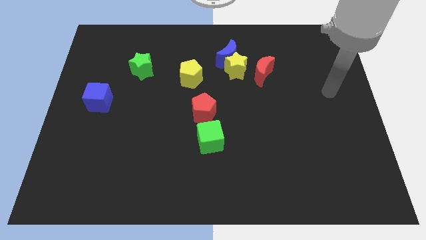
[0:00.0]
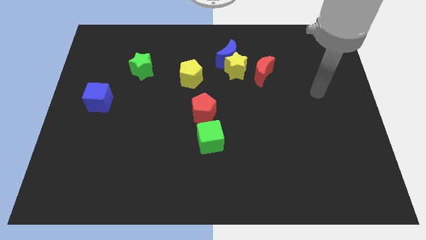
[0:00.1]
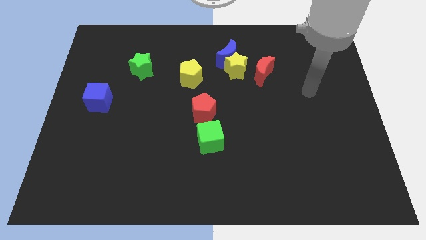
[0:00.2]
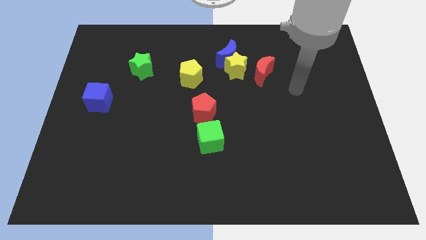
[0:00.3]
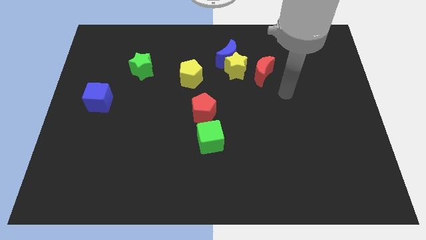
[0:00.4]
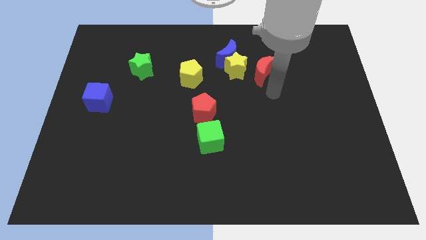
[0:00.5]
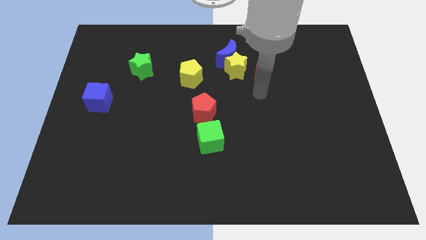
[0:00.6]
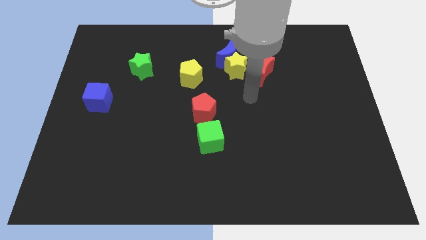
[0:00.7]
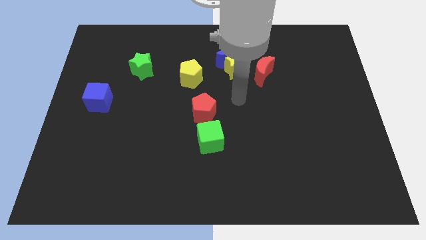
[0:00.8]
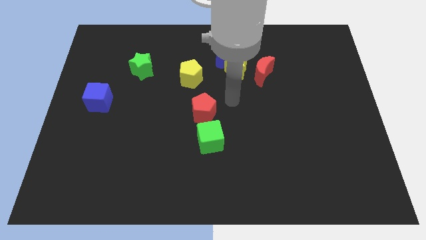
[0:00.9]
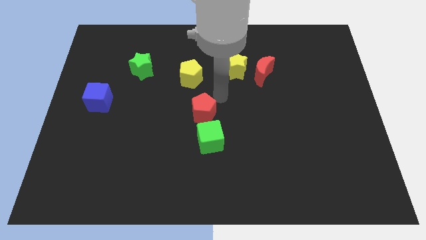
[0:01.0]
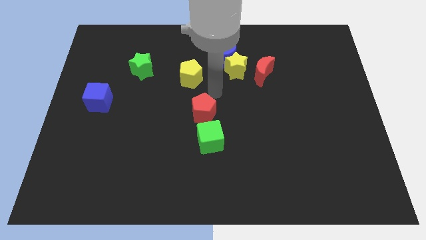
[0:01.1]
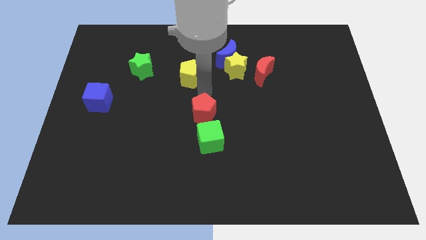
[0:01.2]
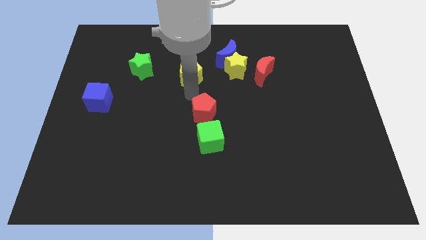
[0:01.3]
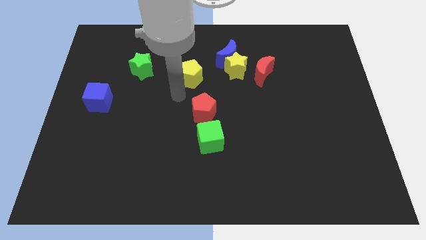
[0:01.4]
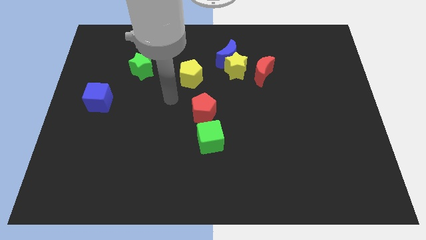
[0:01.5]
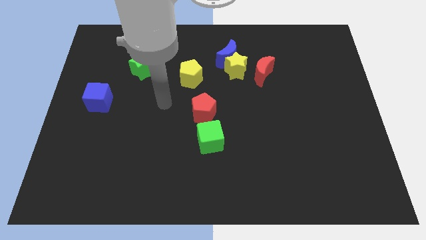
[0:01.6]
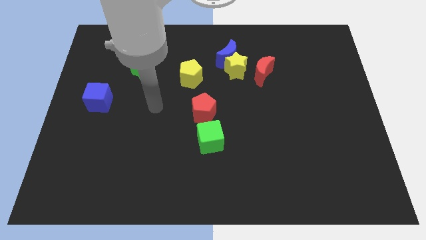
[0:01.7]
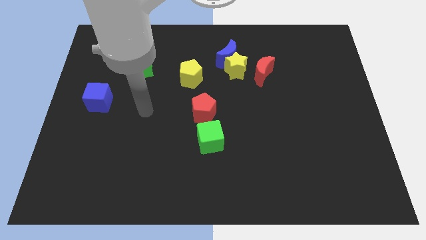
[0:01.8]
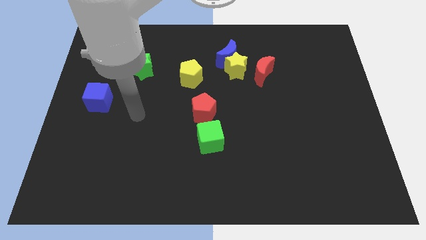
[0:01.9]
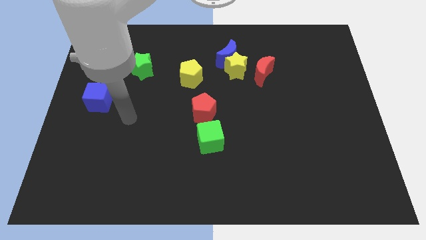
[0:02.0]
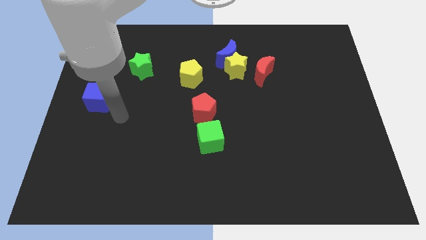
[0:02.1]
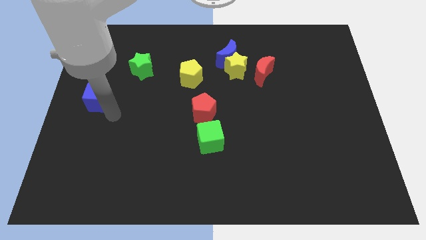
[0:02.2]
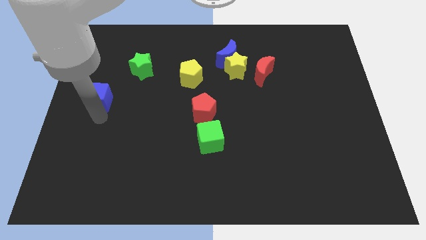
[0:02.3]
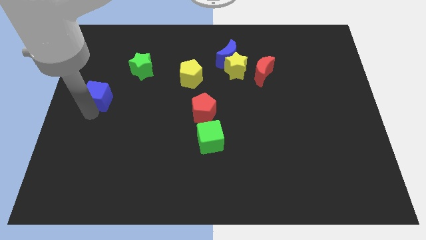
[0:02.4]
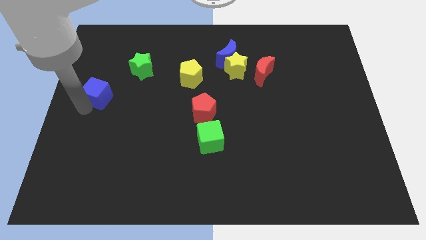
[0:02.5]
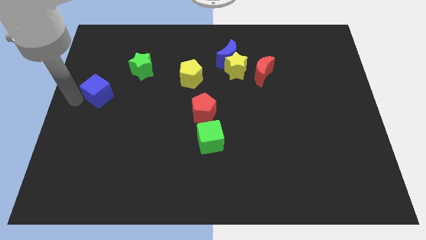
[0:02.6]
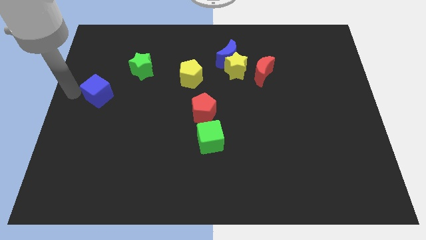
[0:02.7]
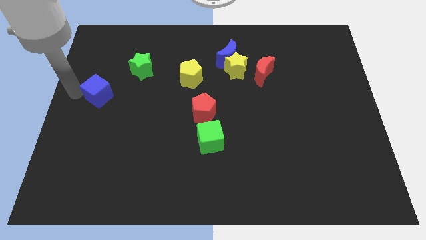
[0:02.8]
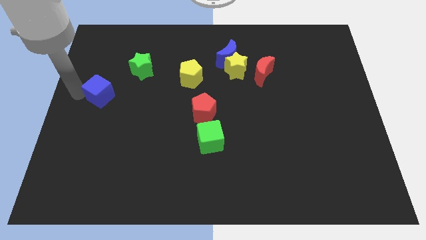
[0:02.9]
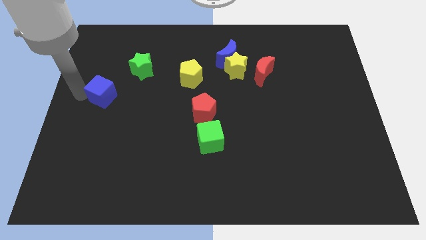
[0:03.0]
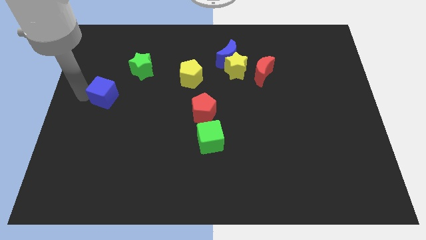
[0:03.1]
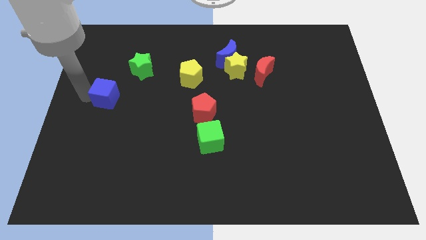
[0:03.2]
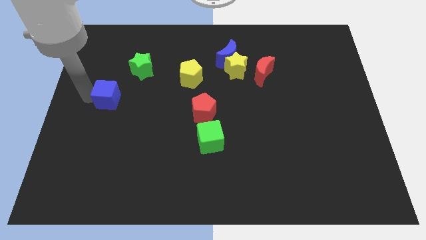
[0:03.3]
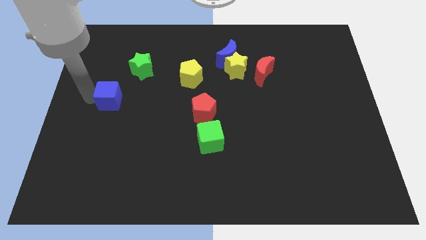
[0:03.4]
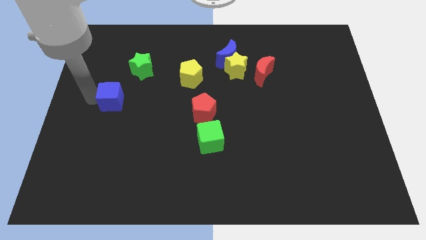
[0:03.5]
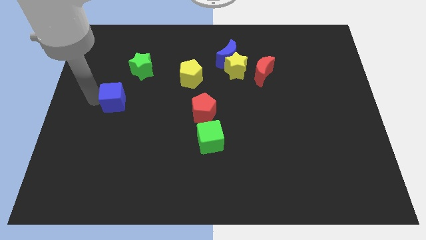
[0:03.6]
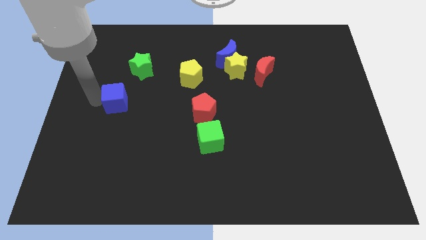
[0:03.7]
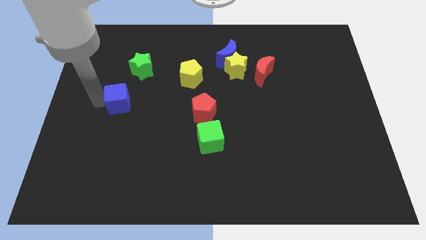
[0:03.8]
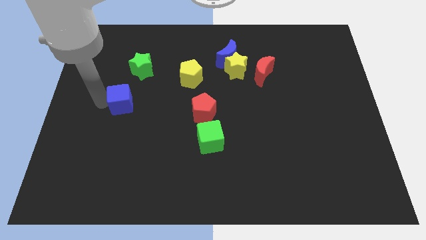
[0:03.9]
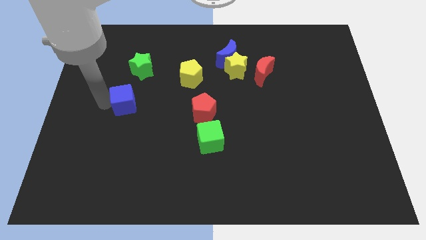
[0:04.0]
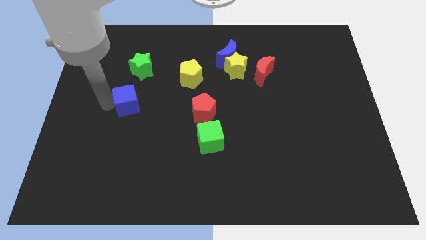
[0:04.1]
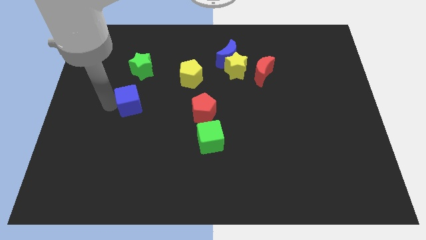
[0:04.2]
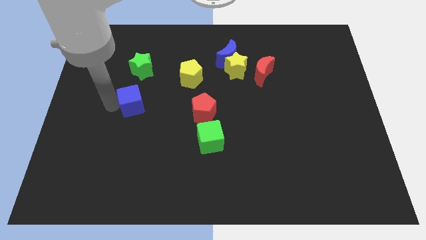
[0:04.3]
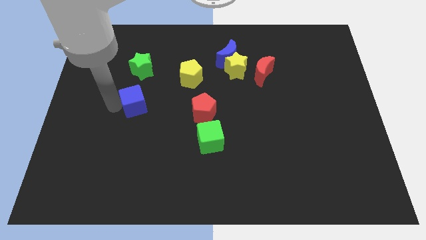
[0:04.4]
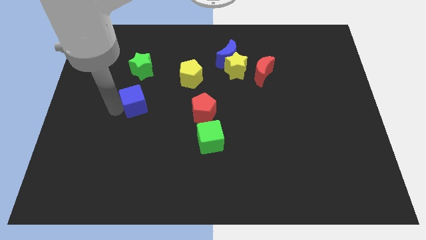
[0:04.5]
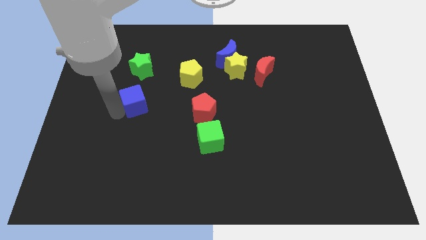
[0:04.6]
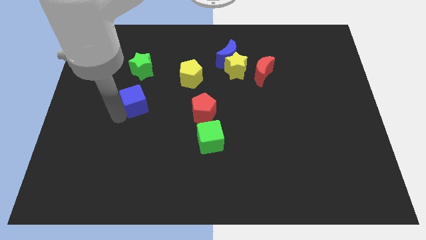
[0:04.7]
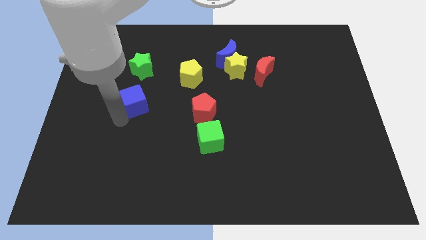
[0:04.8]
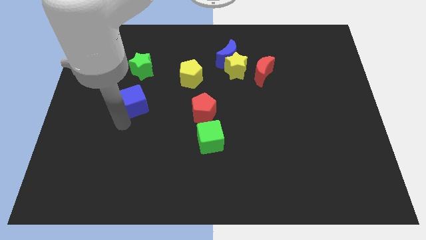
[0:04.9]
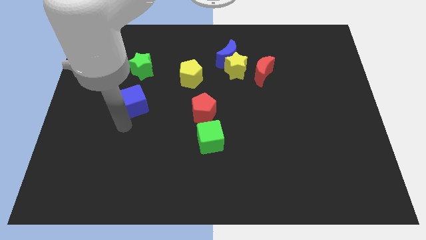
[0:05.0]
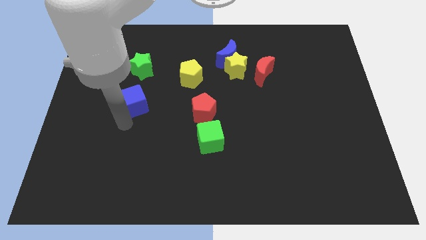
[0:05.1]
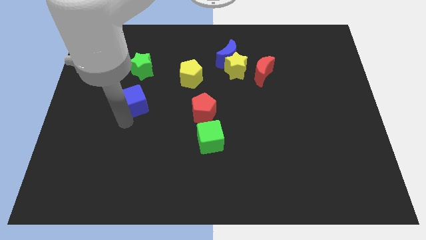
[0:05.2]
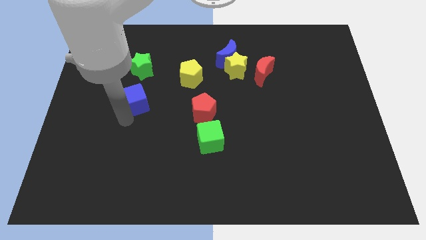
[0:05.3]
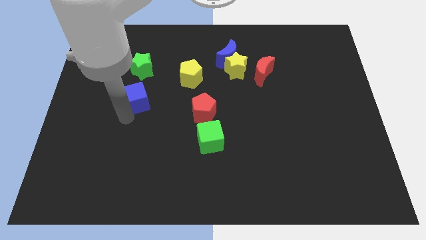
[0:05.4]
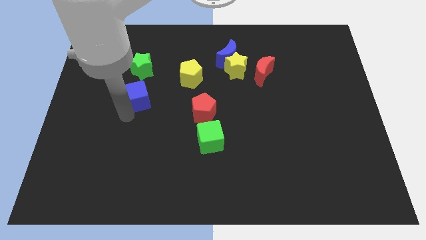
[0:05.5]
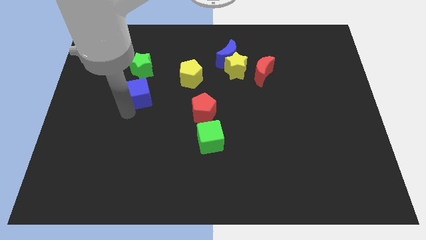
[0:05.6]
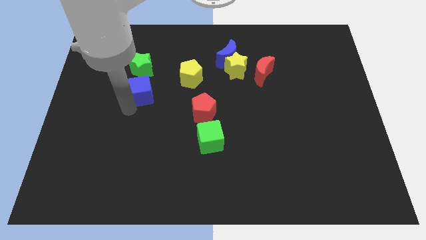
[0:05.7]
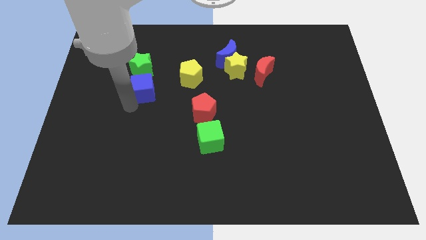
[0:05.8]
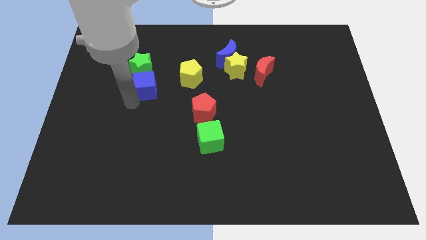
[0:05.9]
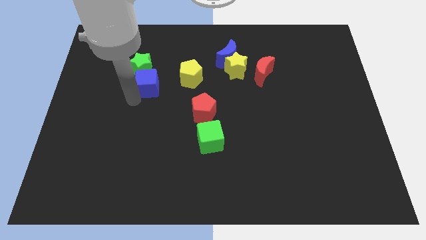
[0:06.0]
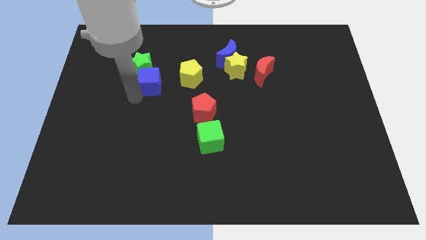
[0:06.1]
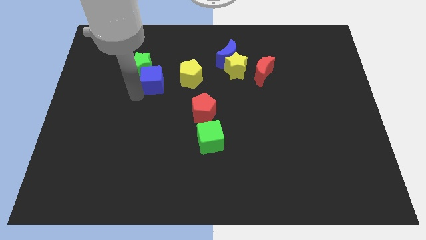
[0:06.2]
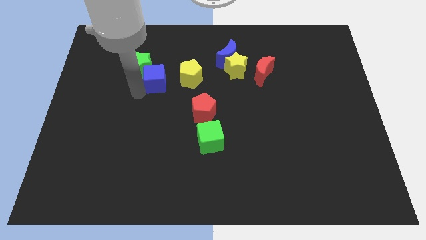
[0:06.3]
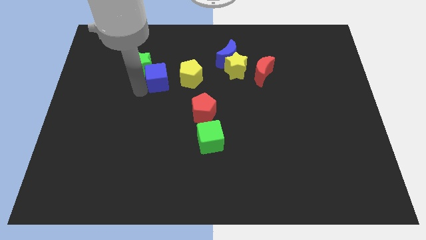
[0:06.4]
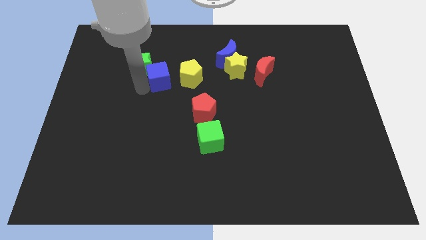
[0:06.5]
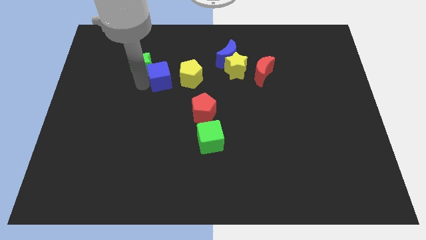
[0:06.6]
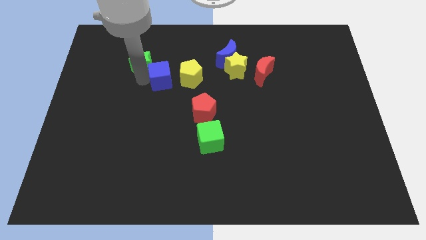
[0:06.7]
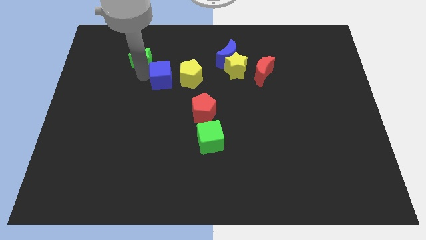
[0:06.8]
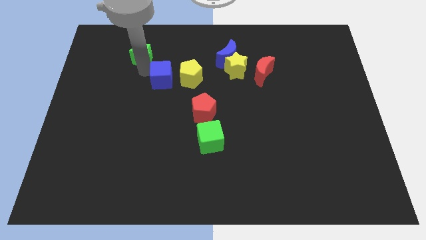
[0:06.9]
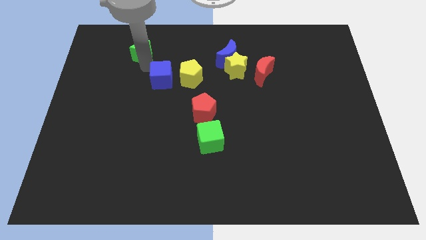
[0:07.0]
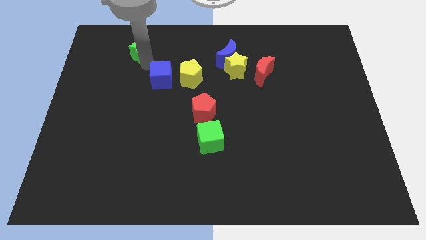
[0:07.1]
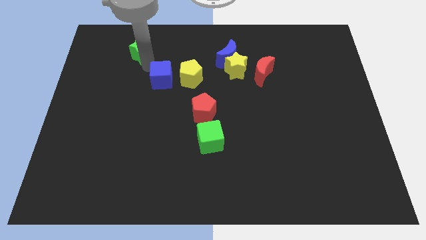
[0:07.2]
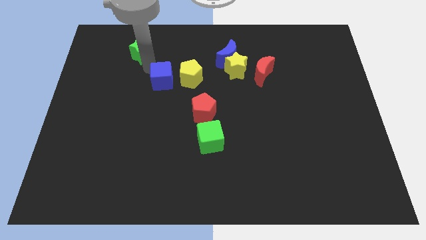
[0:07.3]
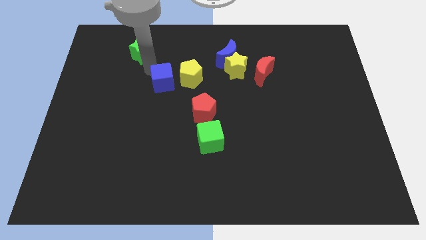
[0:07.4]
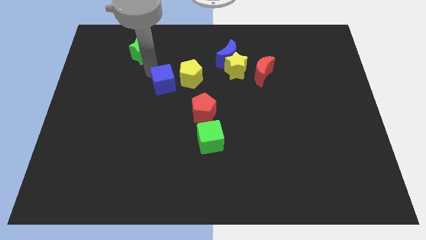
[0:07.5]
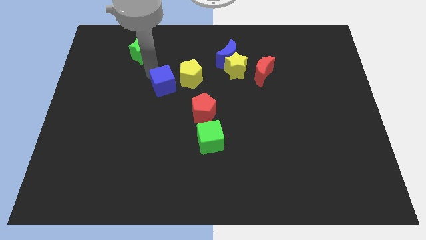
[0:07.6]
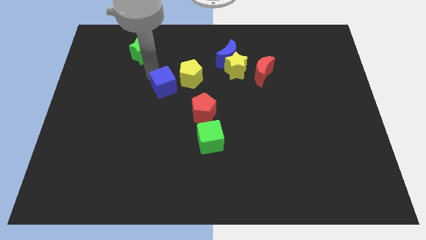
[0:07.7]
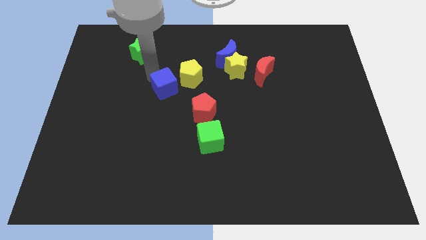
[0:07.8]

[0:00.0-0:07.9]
push the blue cube to the center of the board
